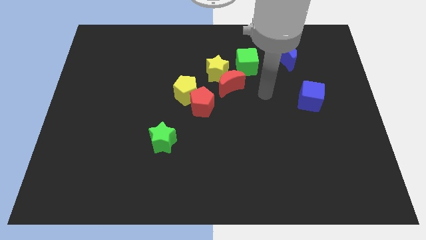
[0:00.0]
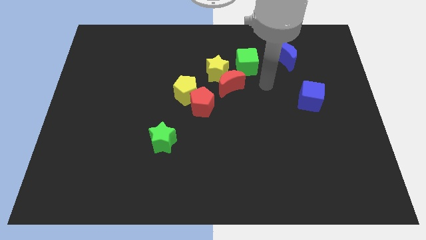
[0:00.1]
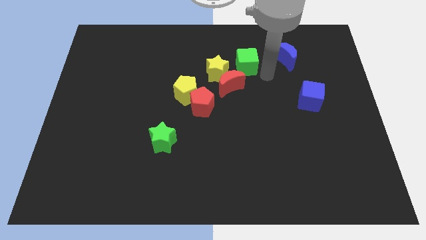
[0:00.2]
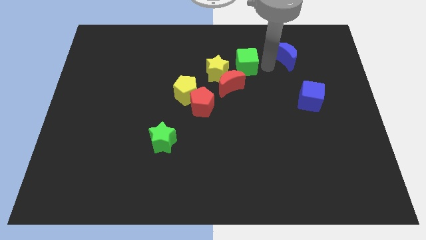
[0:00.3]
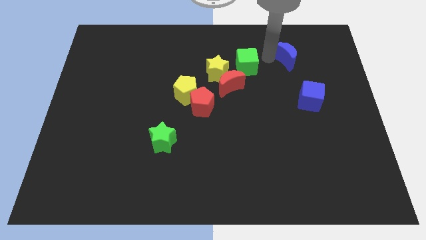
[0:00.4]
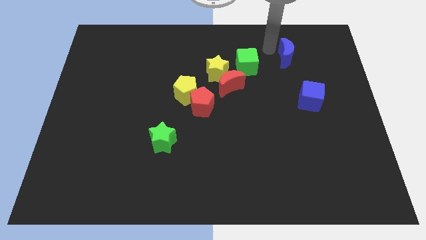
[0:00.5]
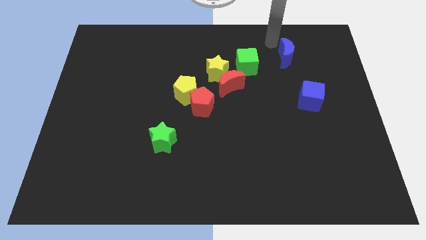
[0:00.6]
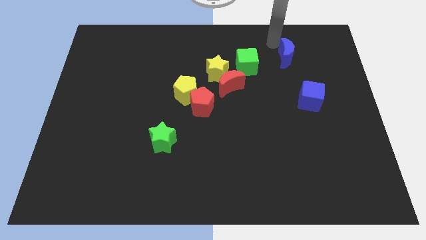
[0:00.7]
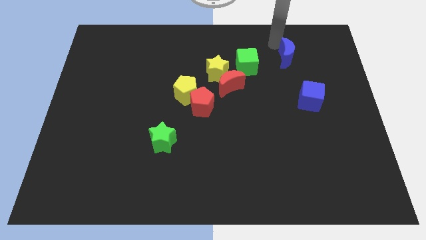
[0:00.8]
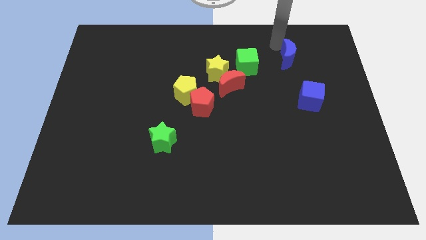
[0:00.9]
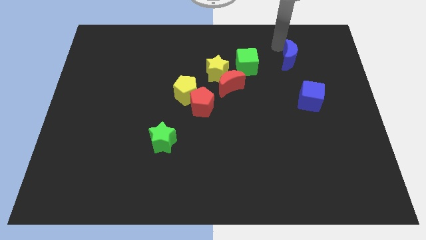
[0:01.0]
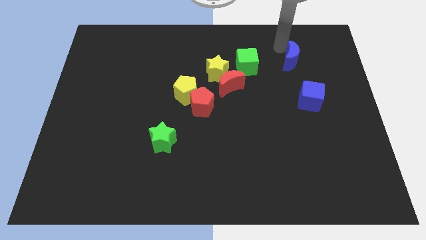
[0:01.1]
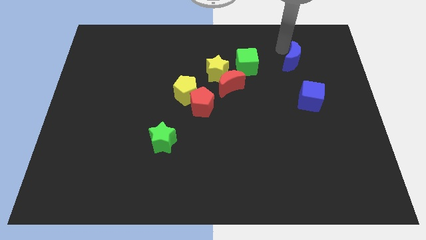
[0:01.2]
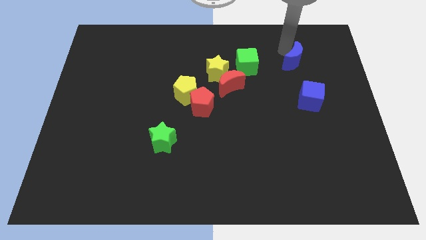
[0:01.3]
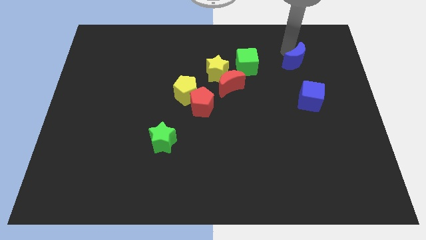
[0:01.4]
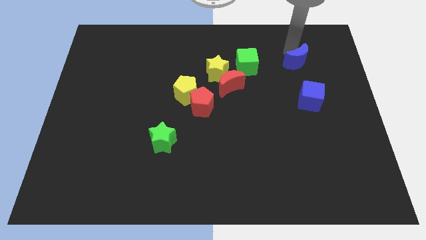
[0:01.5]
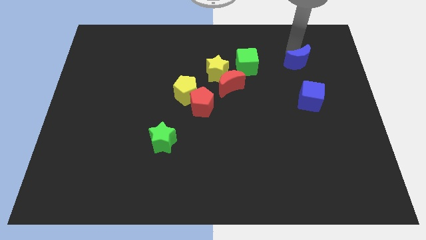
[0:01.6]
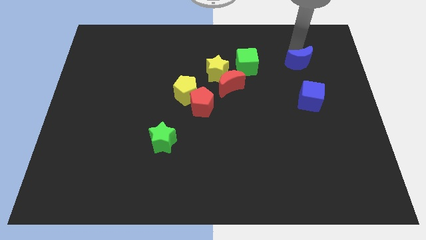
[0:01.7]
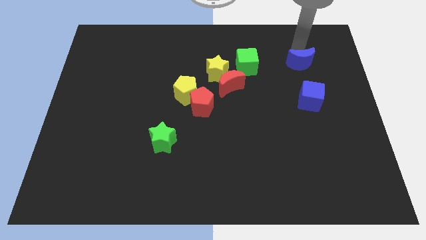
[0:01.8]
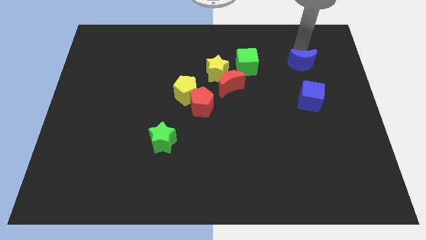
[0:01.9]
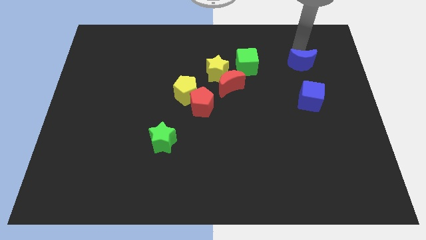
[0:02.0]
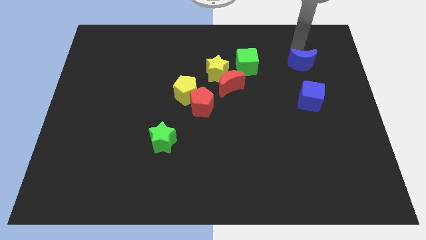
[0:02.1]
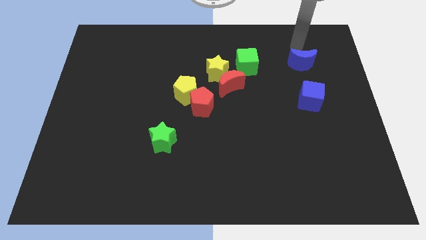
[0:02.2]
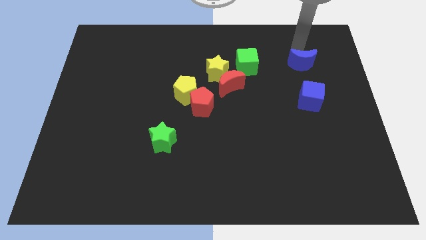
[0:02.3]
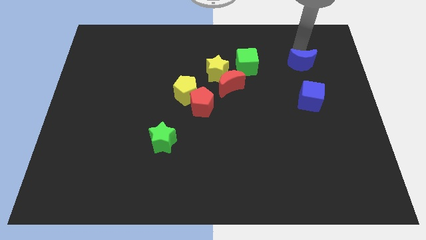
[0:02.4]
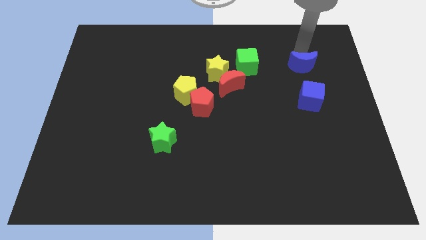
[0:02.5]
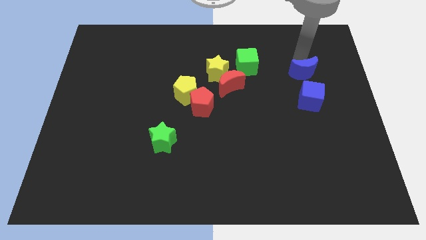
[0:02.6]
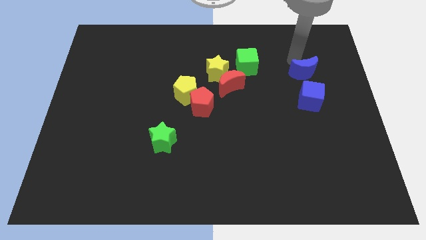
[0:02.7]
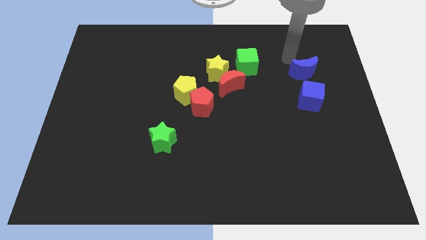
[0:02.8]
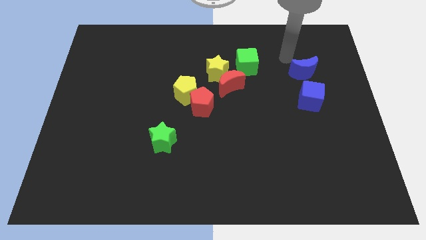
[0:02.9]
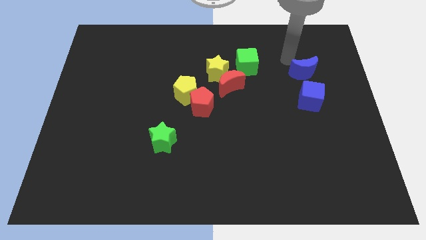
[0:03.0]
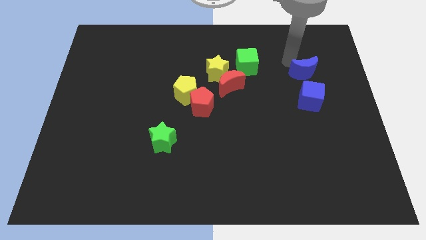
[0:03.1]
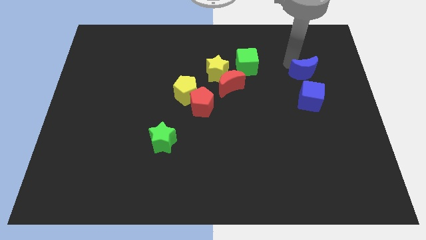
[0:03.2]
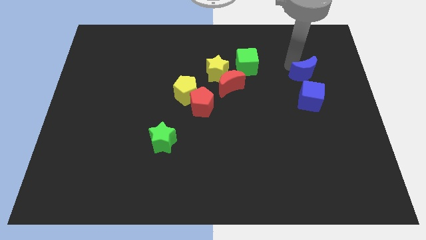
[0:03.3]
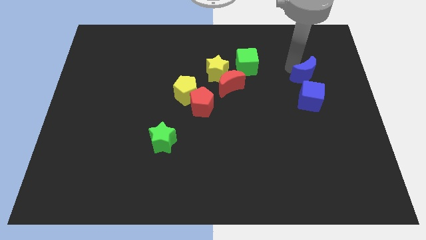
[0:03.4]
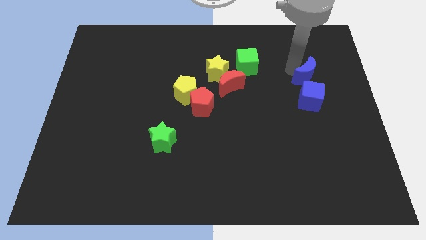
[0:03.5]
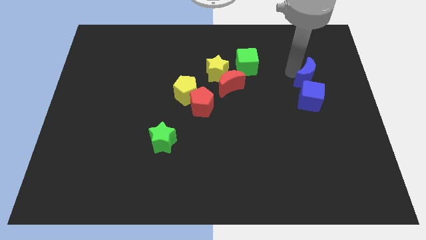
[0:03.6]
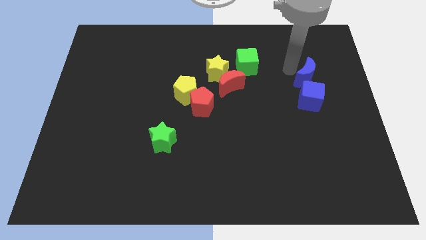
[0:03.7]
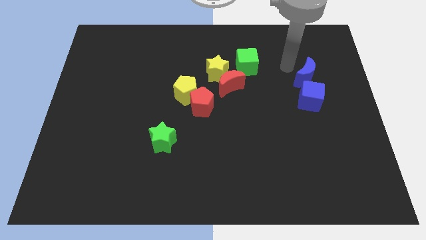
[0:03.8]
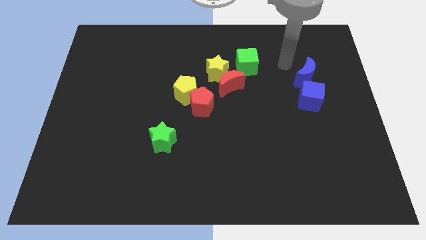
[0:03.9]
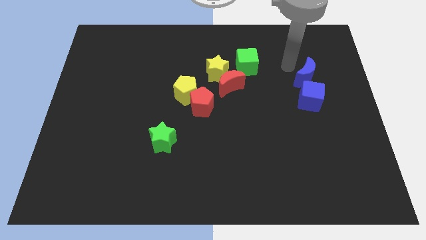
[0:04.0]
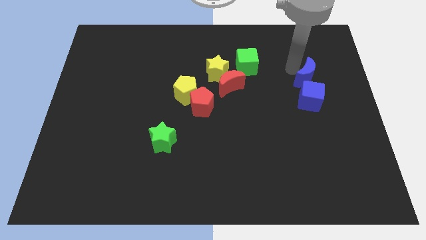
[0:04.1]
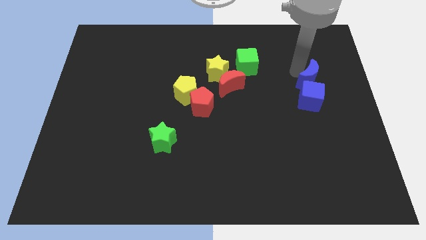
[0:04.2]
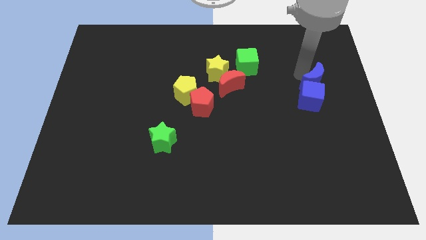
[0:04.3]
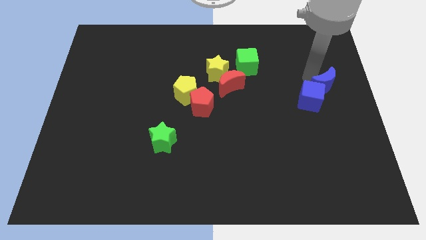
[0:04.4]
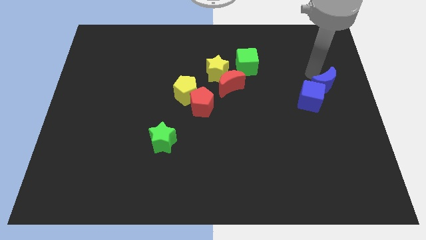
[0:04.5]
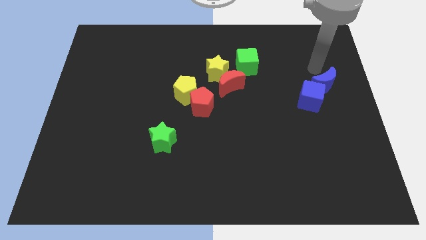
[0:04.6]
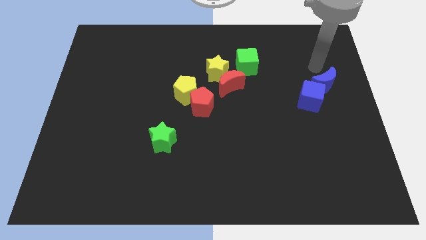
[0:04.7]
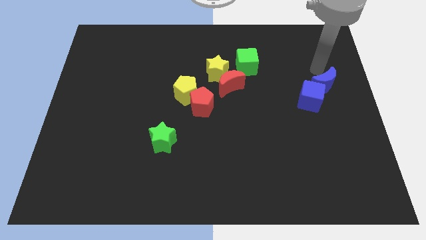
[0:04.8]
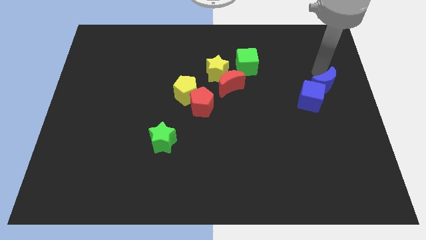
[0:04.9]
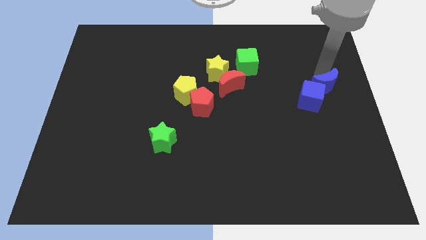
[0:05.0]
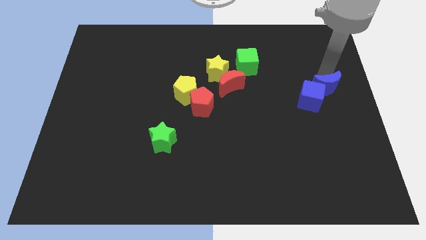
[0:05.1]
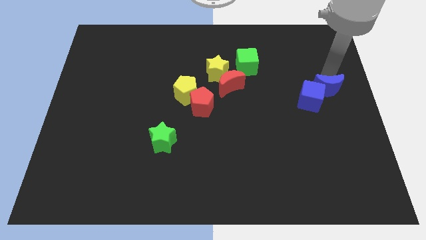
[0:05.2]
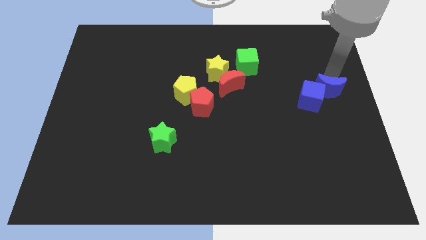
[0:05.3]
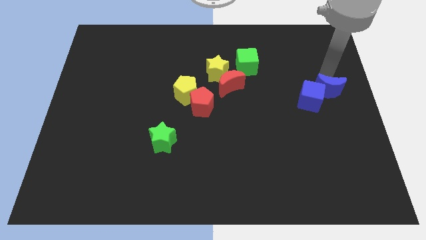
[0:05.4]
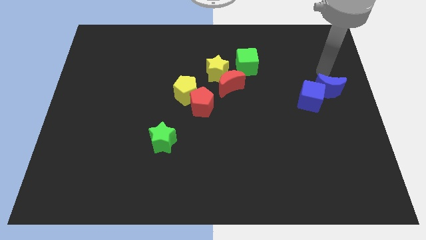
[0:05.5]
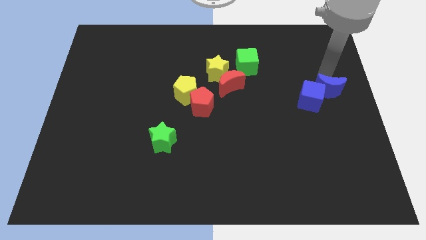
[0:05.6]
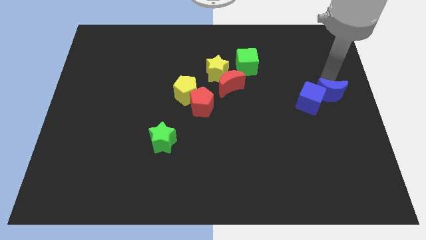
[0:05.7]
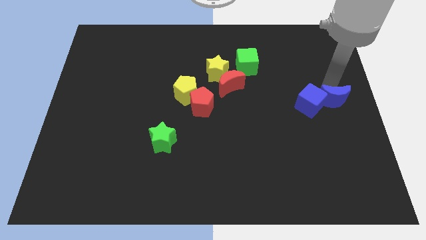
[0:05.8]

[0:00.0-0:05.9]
put the blue moon diagonally down and to the right of the blue cube
